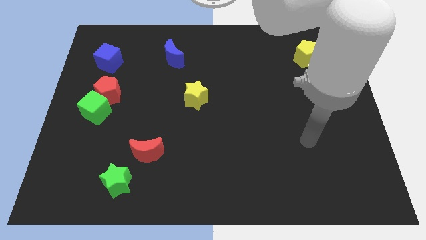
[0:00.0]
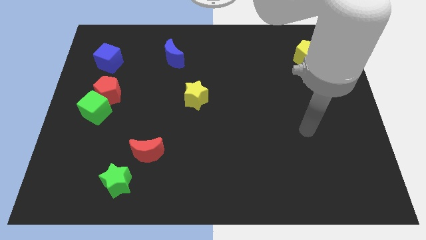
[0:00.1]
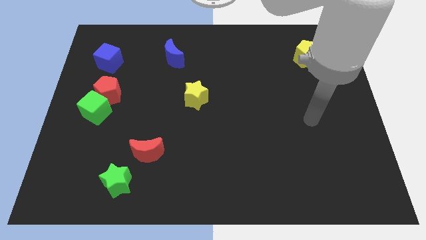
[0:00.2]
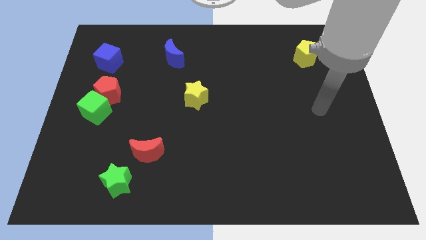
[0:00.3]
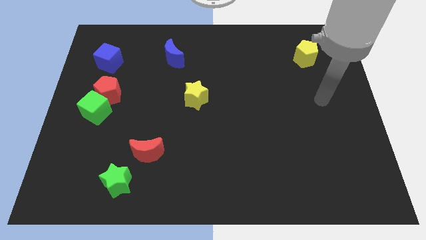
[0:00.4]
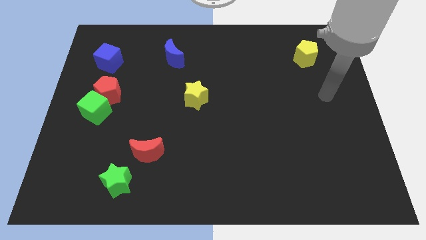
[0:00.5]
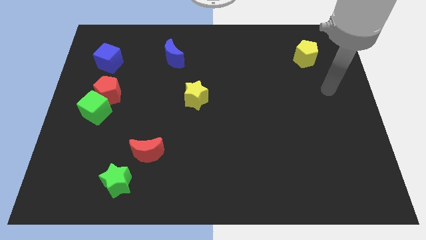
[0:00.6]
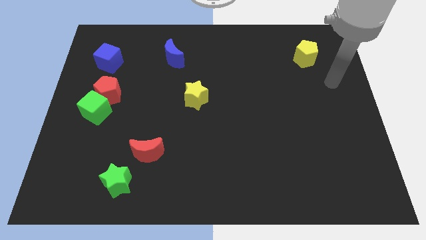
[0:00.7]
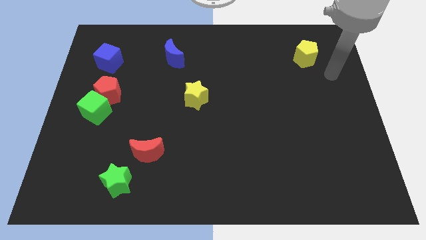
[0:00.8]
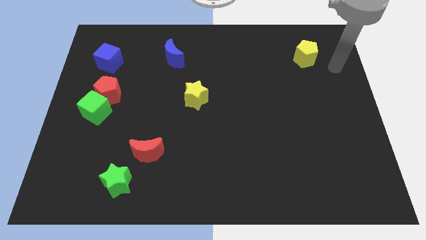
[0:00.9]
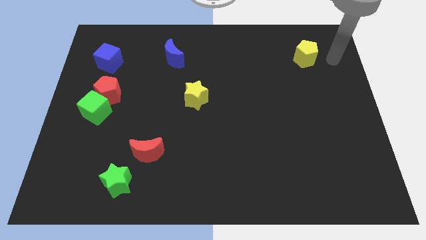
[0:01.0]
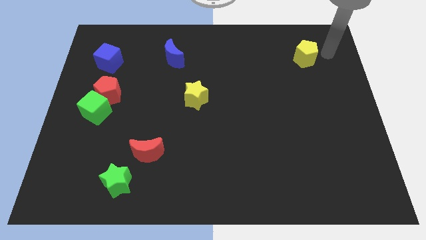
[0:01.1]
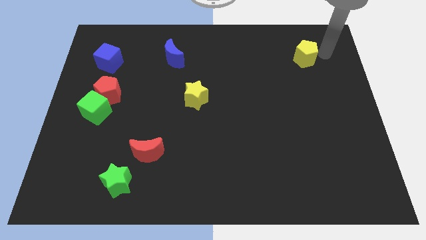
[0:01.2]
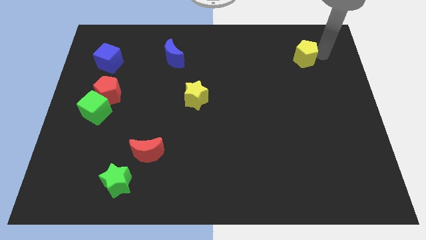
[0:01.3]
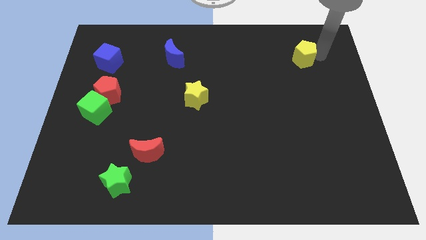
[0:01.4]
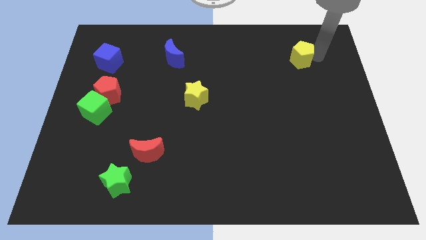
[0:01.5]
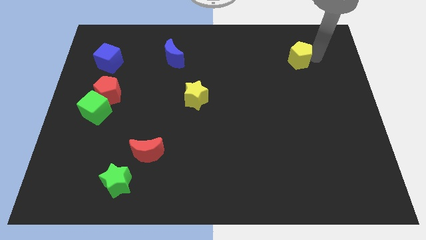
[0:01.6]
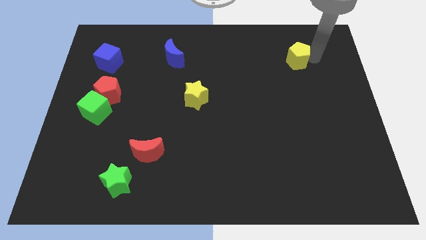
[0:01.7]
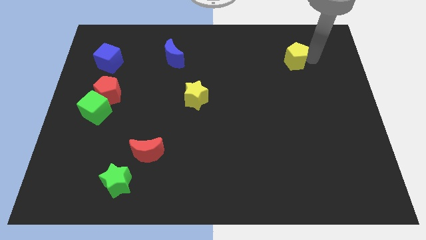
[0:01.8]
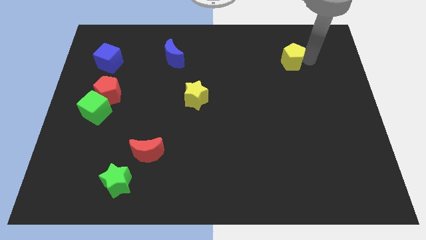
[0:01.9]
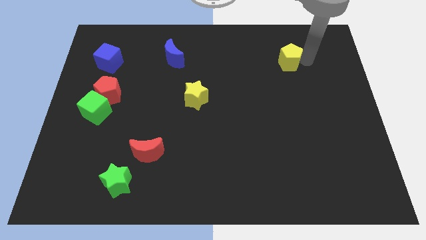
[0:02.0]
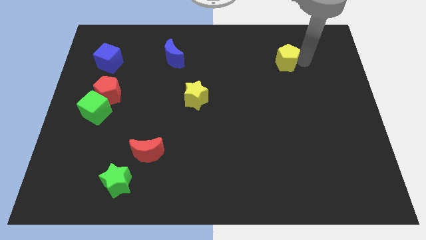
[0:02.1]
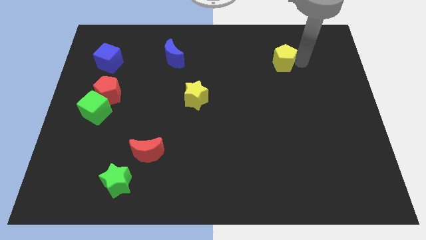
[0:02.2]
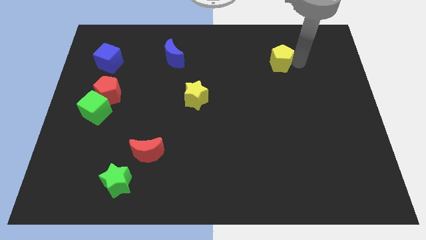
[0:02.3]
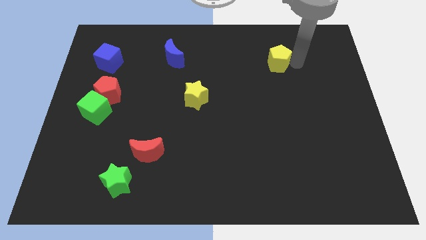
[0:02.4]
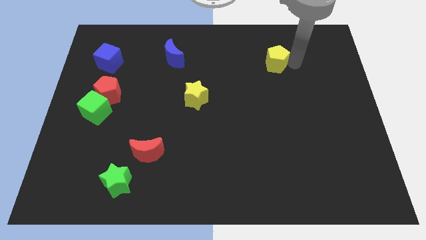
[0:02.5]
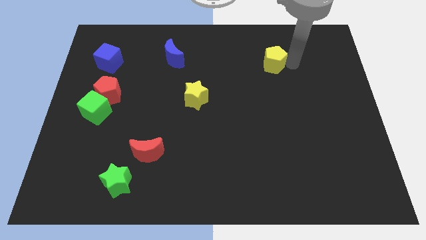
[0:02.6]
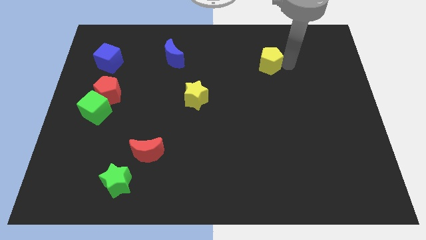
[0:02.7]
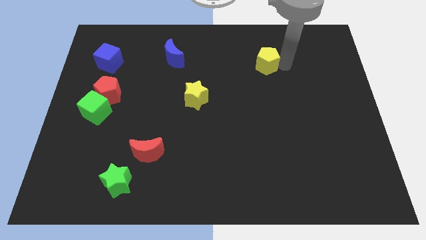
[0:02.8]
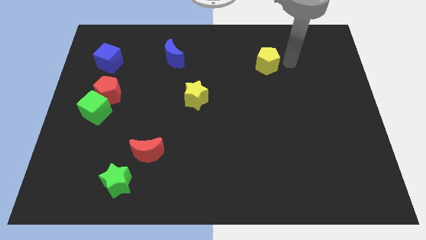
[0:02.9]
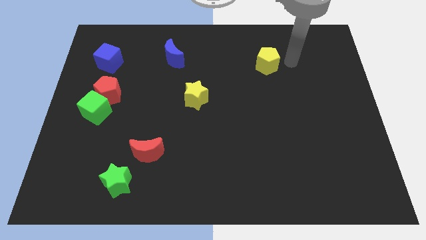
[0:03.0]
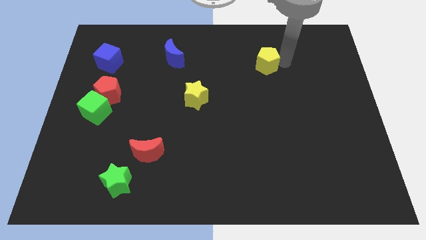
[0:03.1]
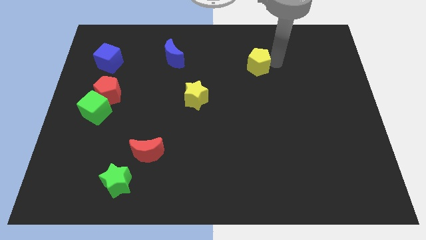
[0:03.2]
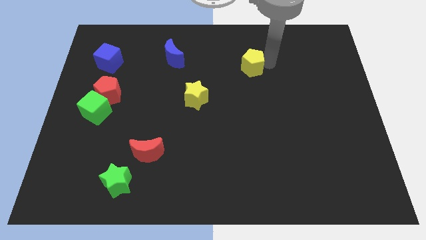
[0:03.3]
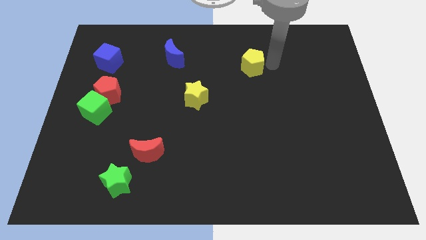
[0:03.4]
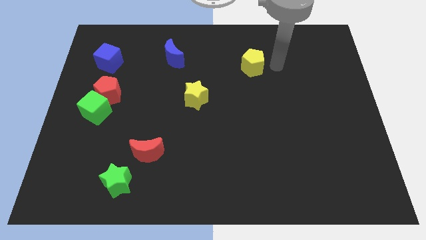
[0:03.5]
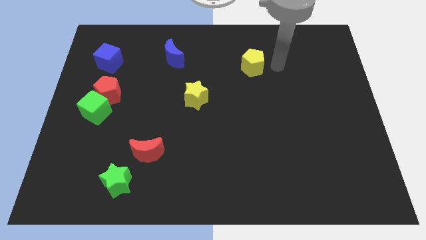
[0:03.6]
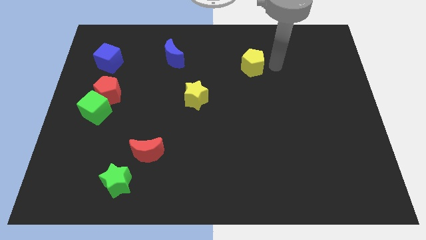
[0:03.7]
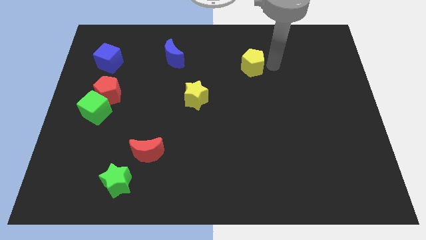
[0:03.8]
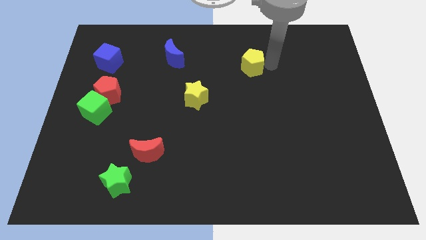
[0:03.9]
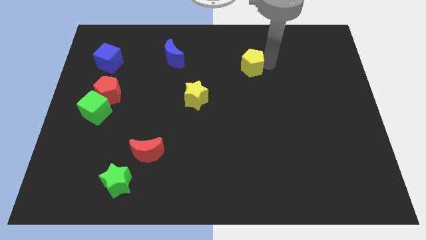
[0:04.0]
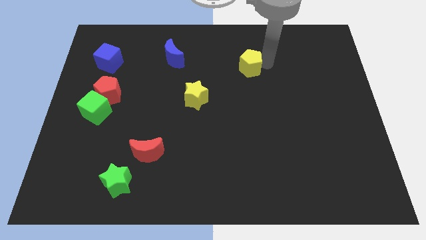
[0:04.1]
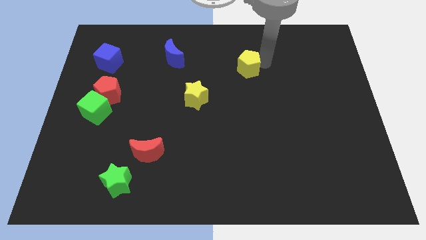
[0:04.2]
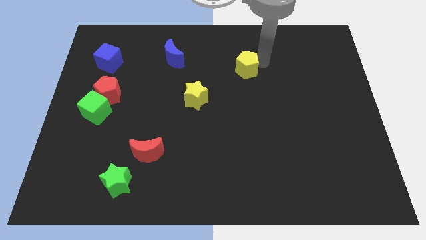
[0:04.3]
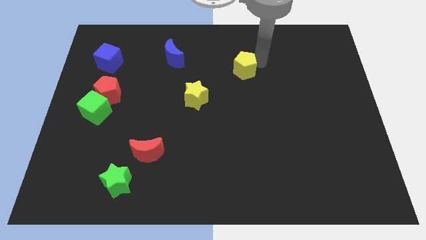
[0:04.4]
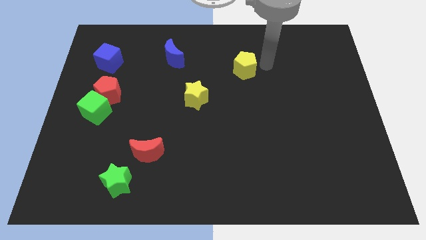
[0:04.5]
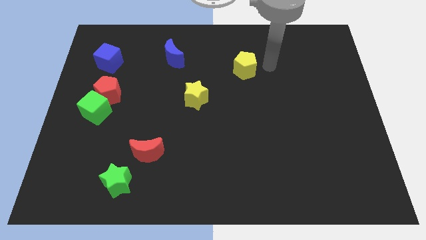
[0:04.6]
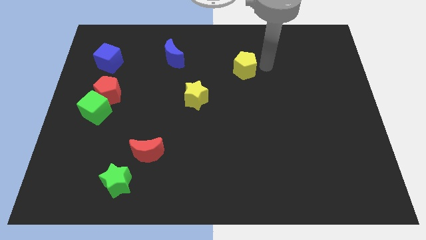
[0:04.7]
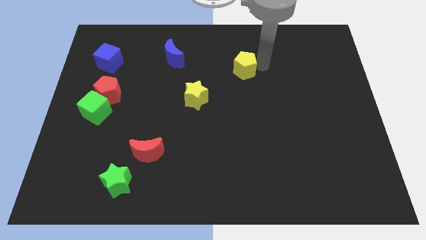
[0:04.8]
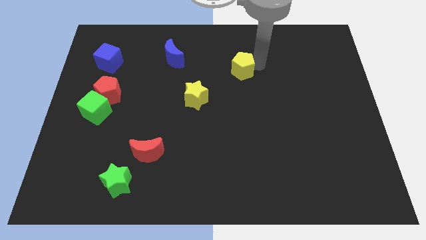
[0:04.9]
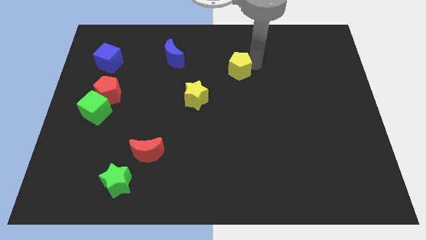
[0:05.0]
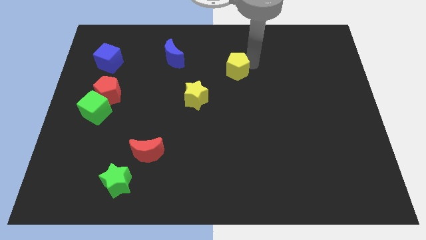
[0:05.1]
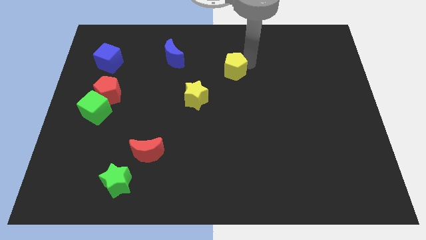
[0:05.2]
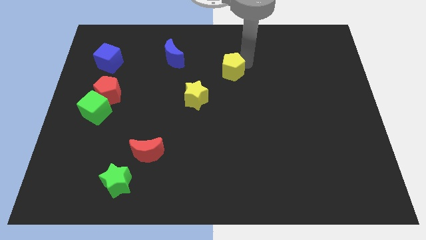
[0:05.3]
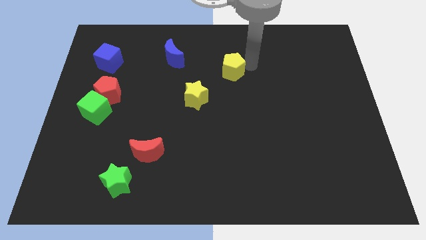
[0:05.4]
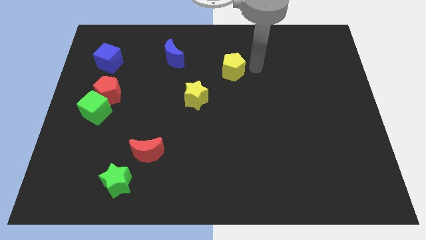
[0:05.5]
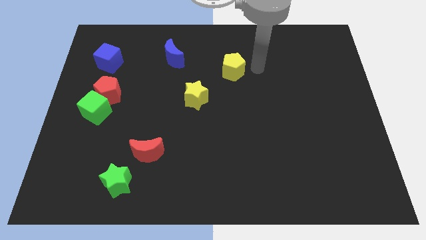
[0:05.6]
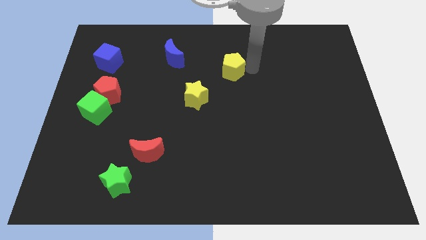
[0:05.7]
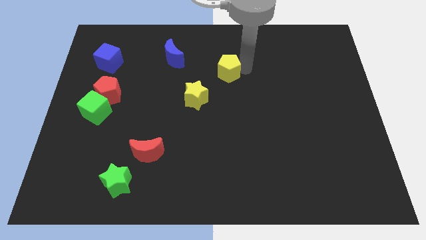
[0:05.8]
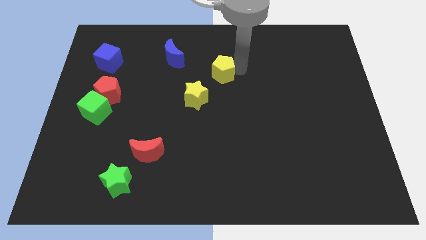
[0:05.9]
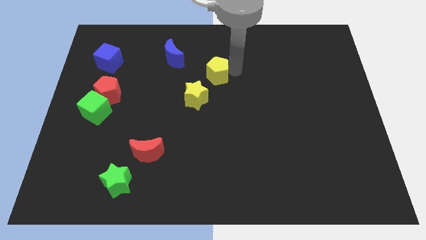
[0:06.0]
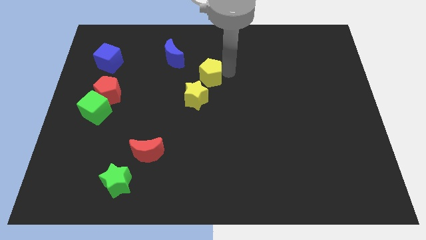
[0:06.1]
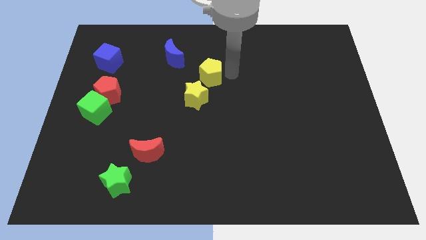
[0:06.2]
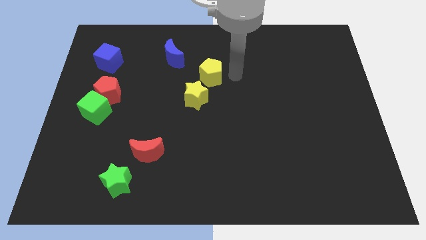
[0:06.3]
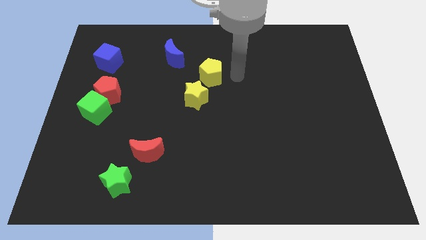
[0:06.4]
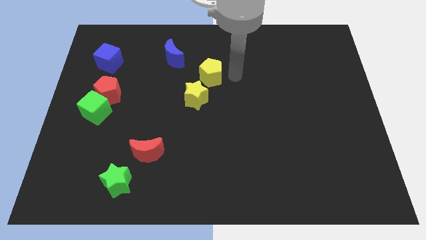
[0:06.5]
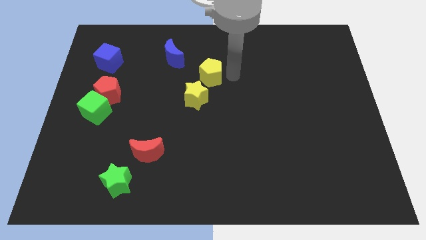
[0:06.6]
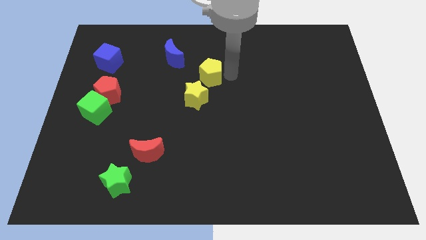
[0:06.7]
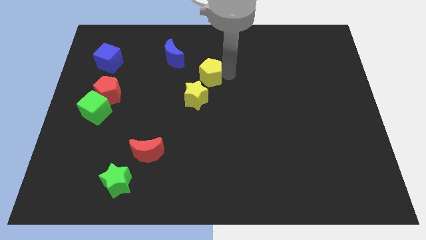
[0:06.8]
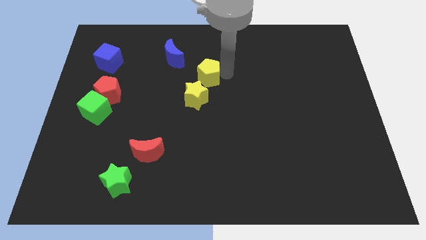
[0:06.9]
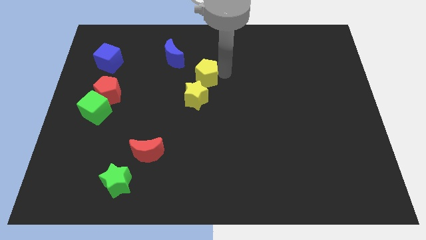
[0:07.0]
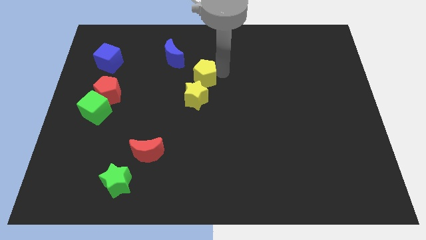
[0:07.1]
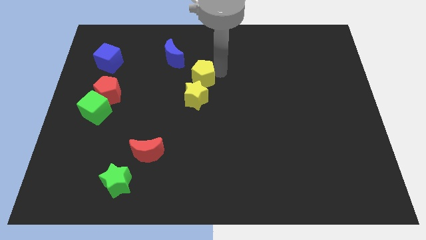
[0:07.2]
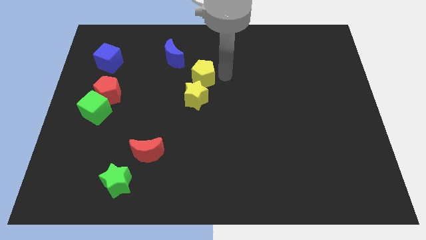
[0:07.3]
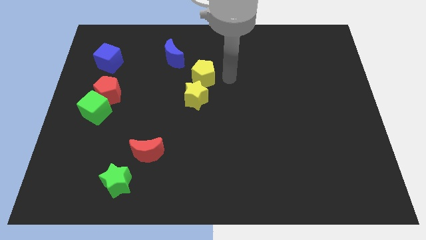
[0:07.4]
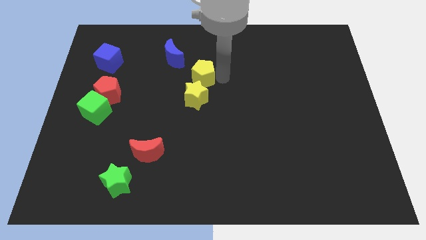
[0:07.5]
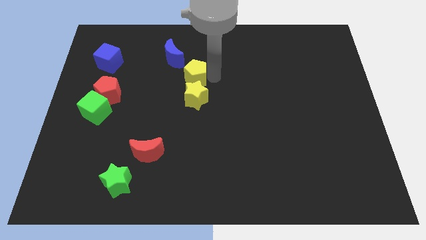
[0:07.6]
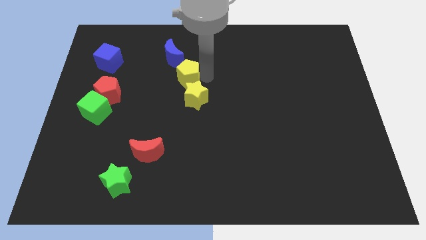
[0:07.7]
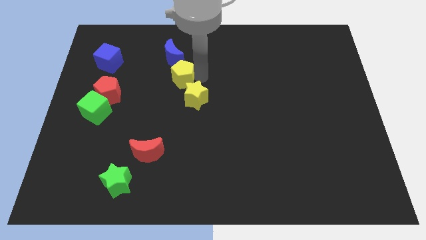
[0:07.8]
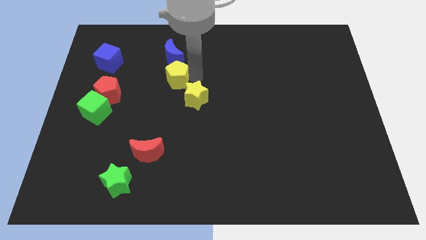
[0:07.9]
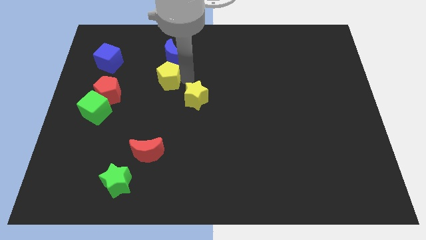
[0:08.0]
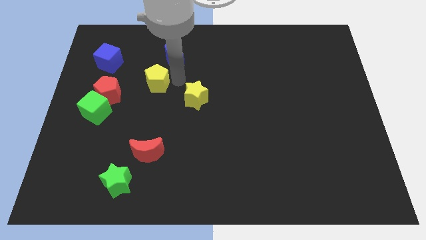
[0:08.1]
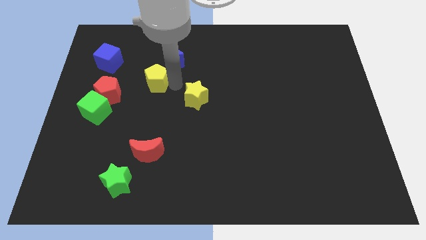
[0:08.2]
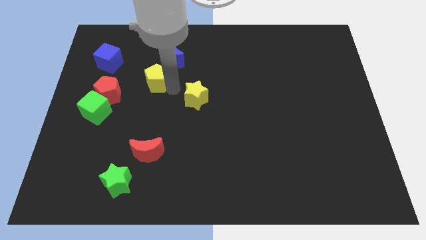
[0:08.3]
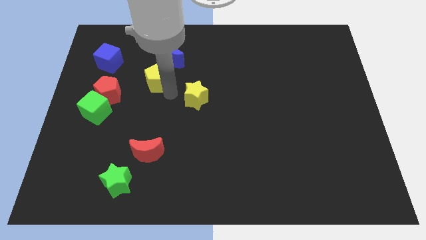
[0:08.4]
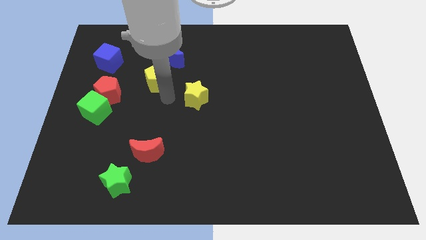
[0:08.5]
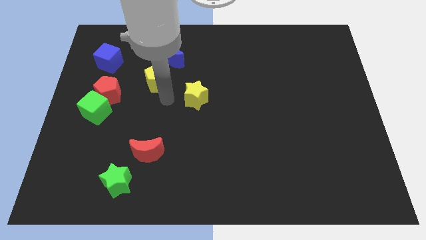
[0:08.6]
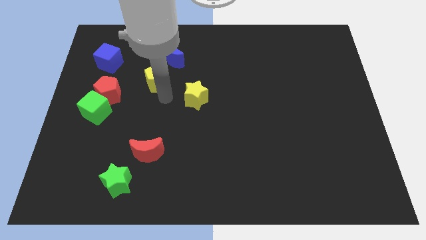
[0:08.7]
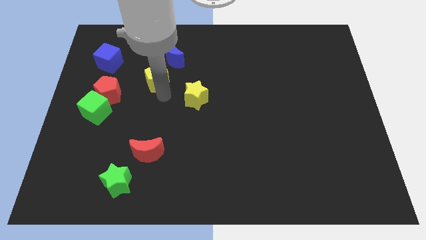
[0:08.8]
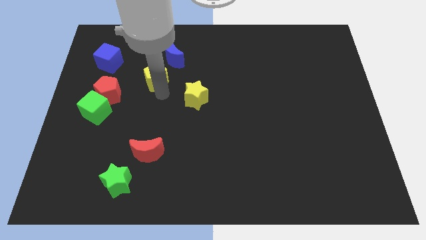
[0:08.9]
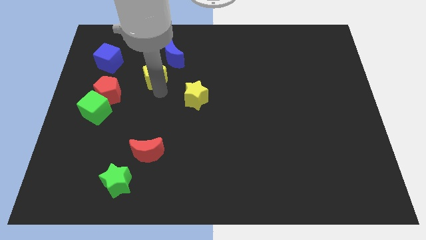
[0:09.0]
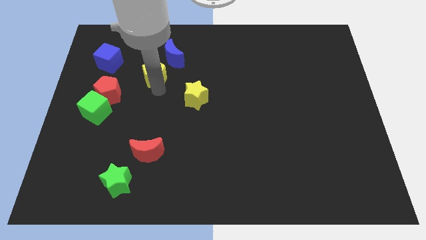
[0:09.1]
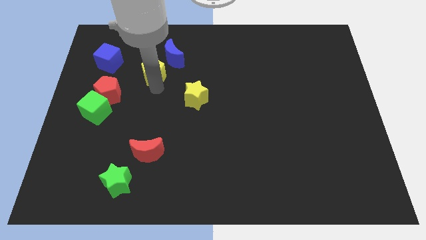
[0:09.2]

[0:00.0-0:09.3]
push the yellow pentagon just right of the blue cube
